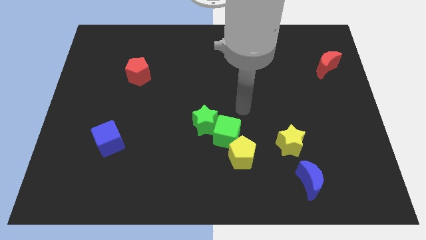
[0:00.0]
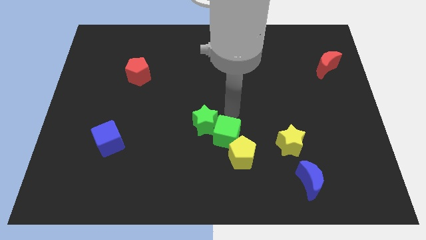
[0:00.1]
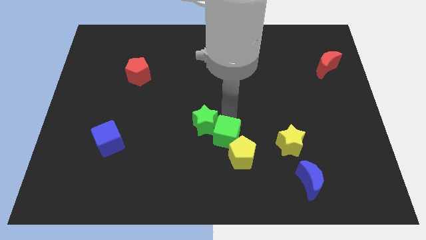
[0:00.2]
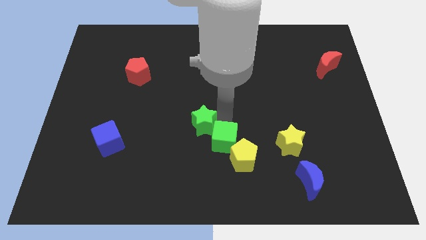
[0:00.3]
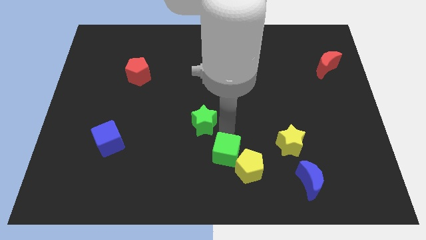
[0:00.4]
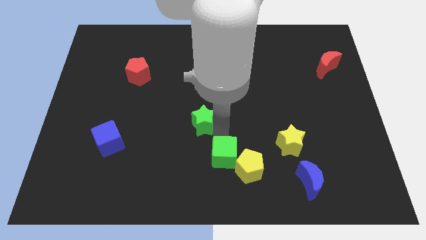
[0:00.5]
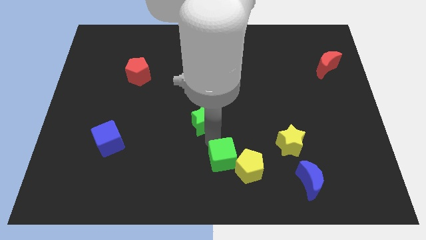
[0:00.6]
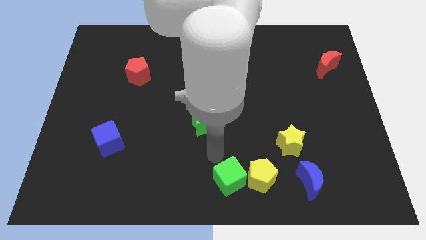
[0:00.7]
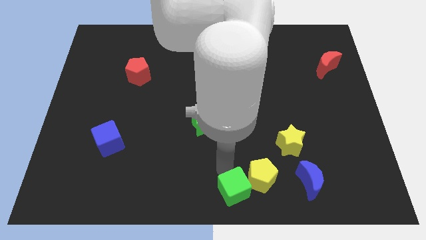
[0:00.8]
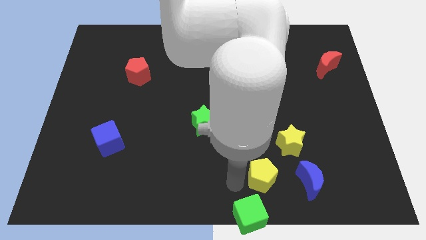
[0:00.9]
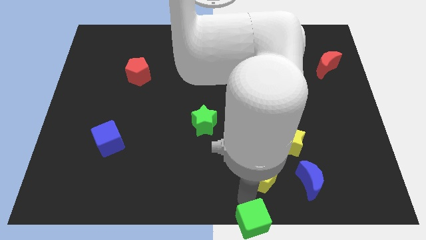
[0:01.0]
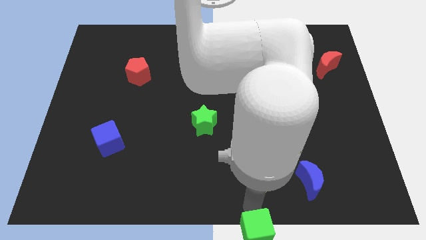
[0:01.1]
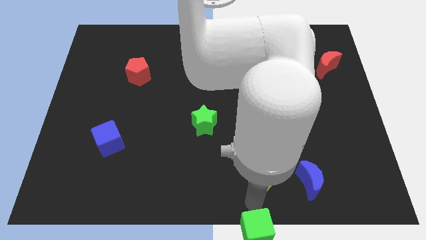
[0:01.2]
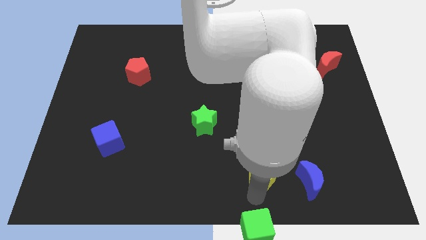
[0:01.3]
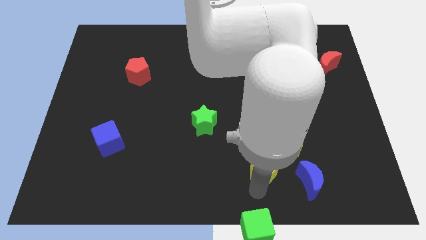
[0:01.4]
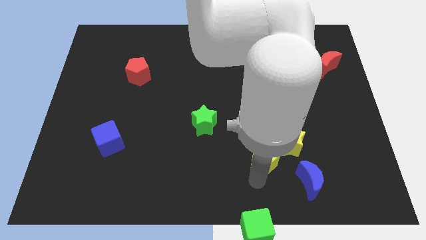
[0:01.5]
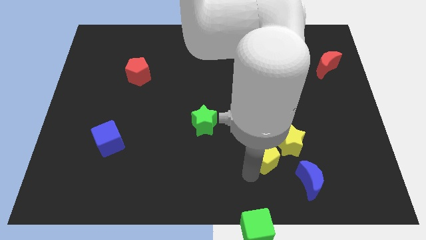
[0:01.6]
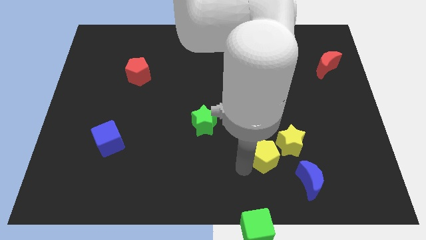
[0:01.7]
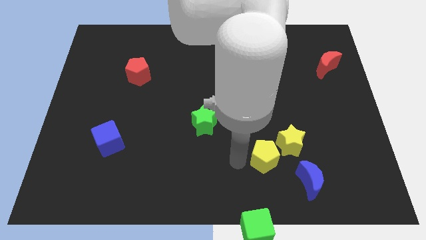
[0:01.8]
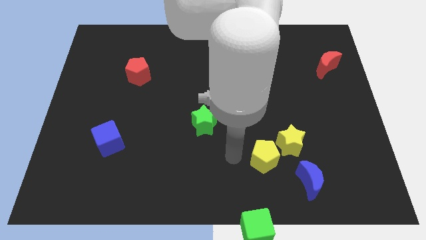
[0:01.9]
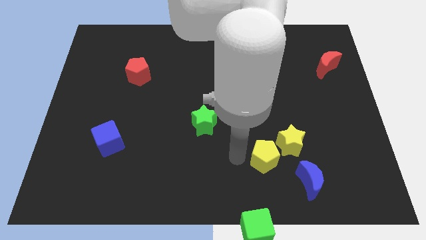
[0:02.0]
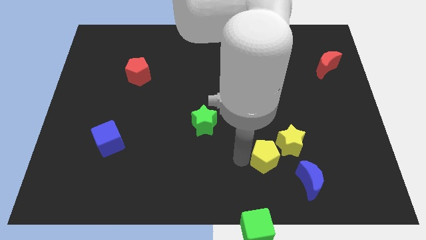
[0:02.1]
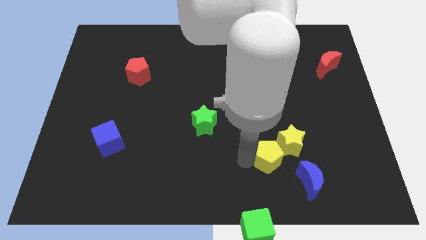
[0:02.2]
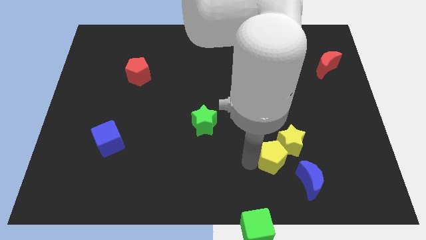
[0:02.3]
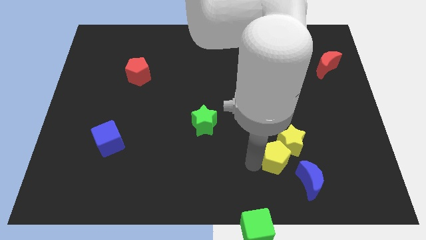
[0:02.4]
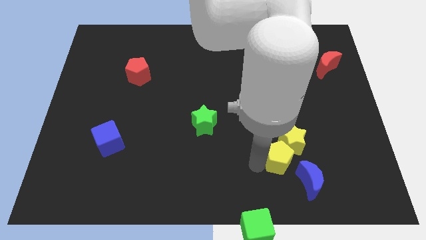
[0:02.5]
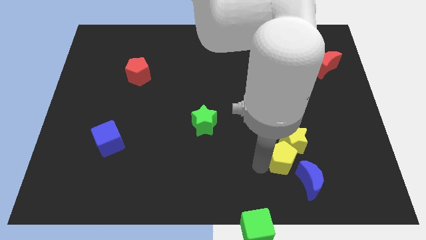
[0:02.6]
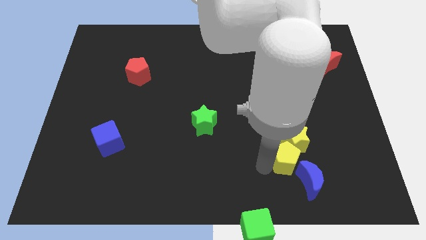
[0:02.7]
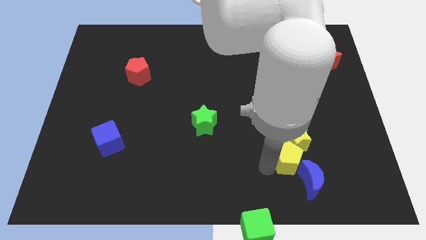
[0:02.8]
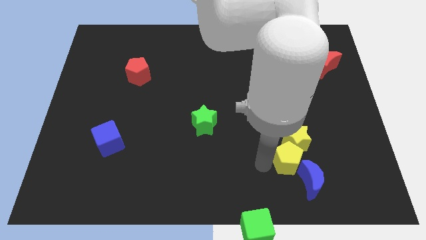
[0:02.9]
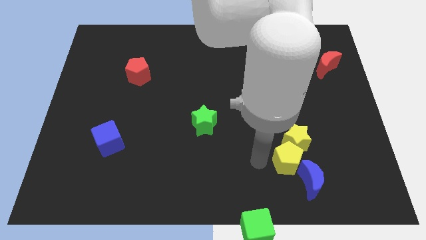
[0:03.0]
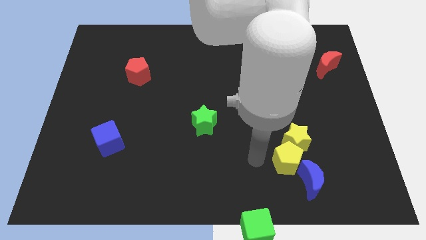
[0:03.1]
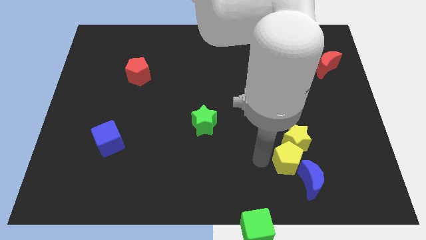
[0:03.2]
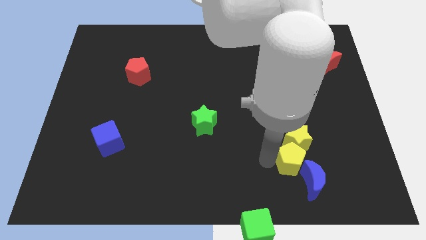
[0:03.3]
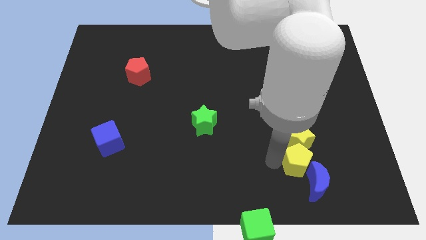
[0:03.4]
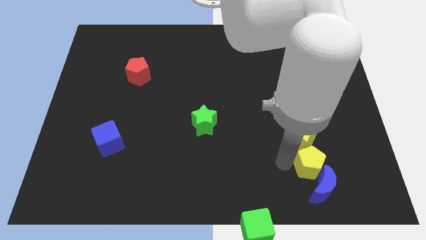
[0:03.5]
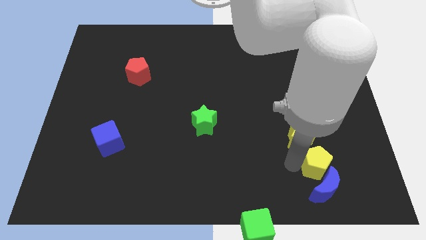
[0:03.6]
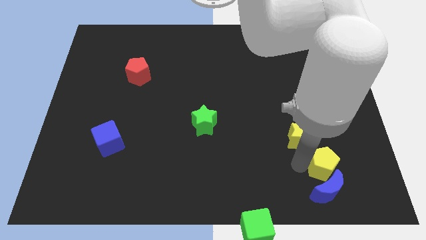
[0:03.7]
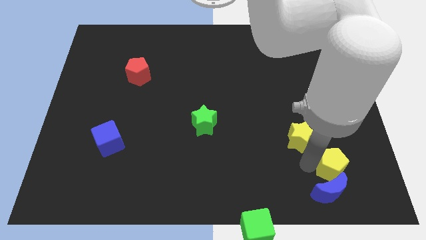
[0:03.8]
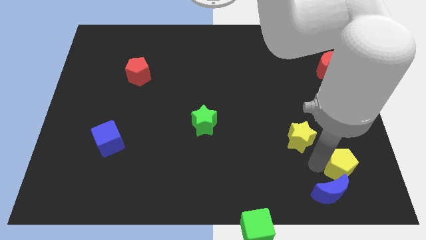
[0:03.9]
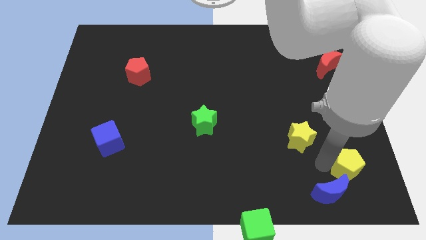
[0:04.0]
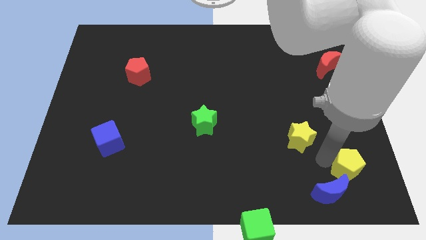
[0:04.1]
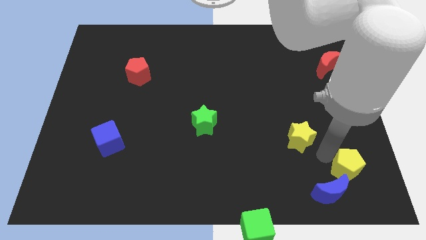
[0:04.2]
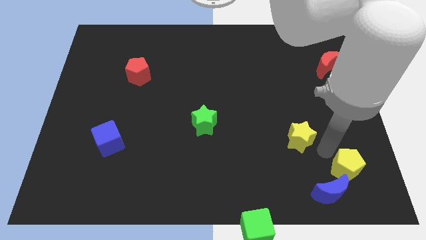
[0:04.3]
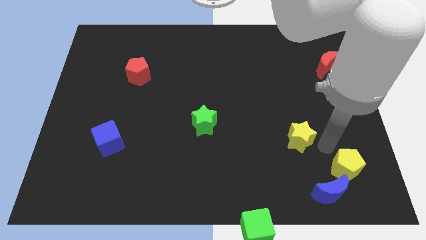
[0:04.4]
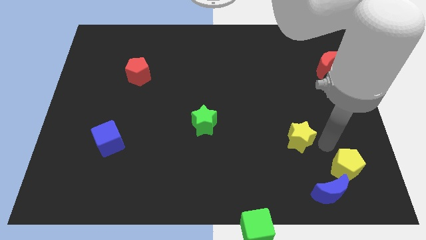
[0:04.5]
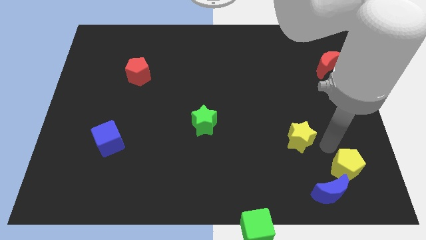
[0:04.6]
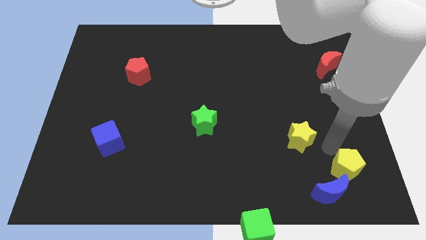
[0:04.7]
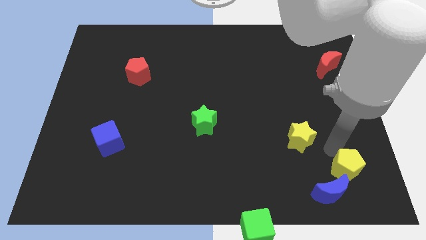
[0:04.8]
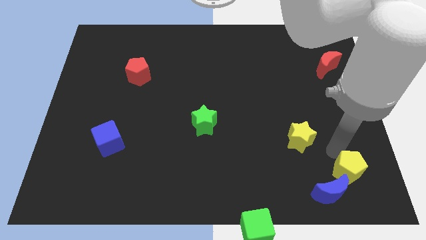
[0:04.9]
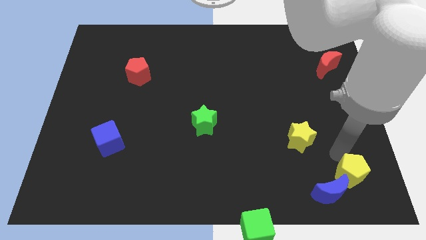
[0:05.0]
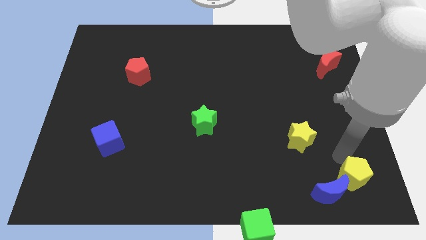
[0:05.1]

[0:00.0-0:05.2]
push the yellow pentagon to the bottom right corner

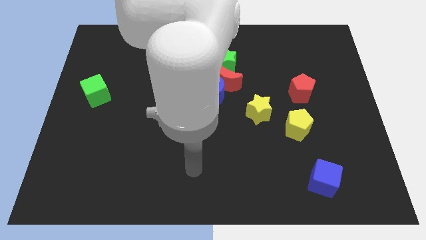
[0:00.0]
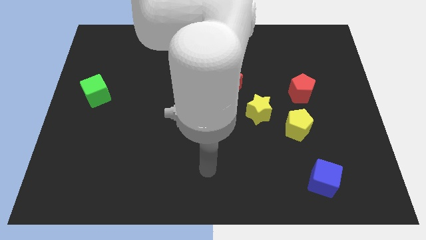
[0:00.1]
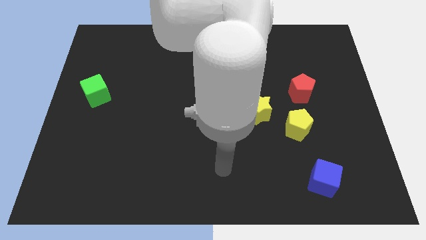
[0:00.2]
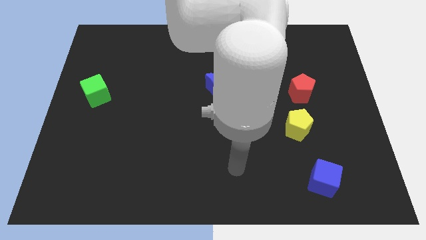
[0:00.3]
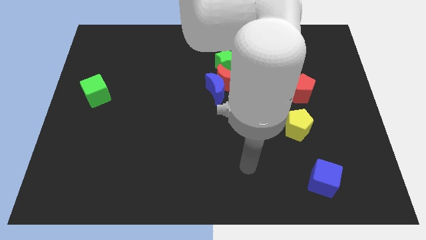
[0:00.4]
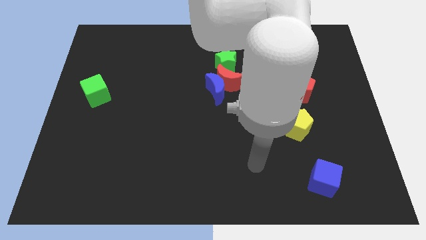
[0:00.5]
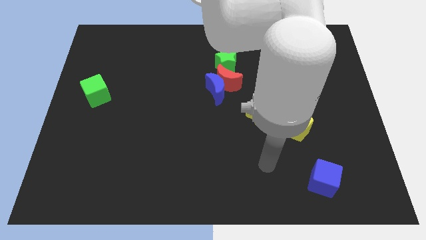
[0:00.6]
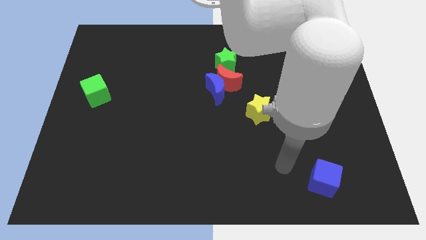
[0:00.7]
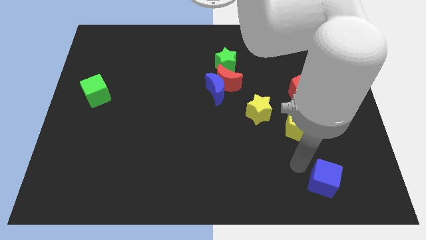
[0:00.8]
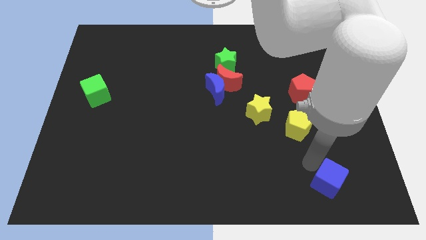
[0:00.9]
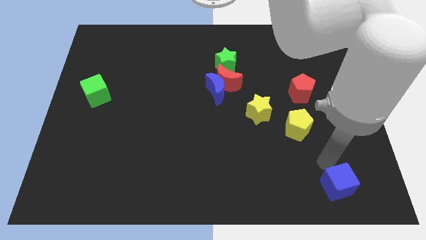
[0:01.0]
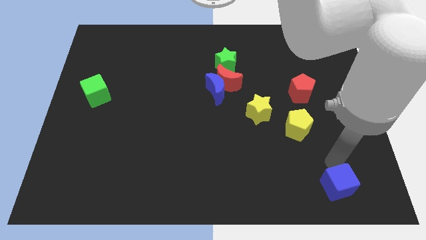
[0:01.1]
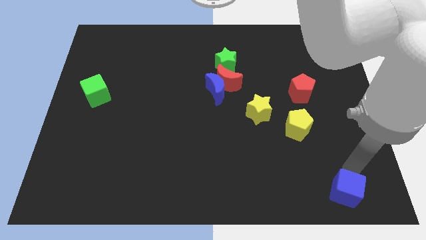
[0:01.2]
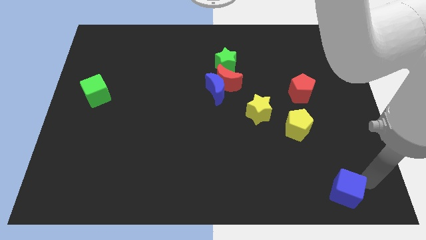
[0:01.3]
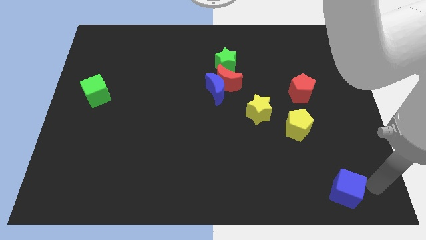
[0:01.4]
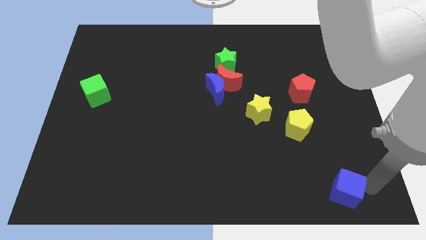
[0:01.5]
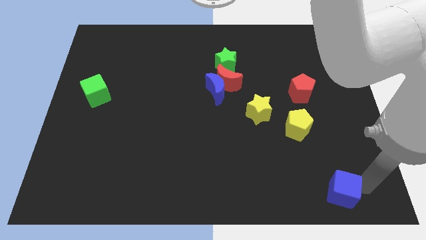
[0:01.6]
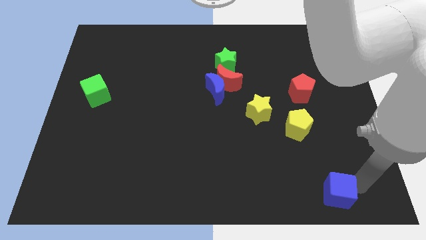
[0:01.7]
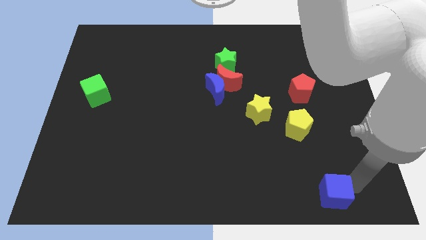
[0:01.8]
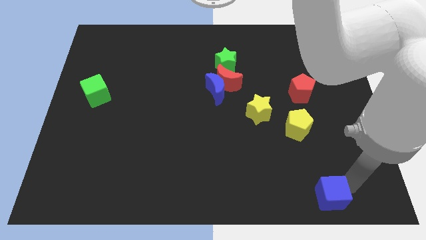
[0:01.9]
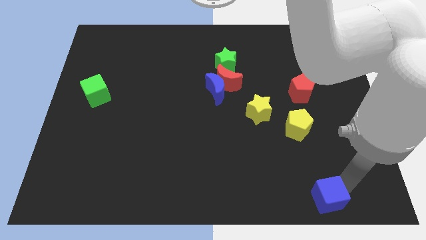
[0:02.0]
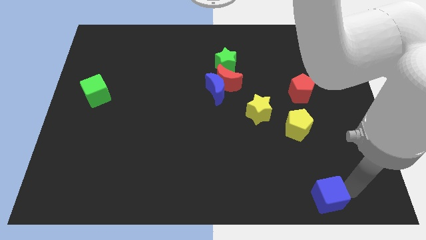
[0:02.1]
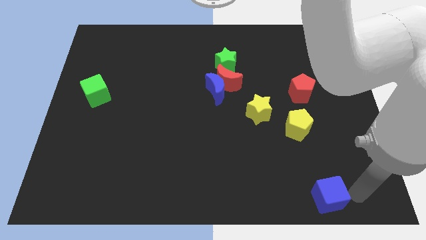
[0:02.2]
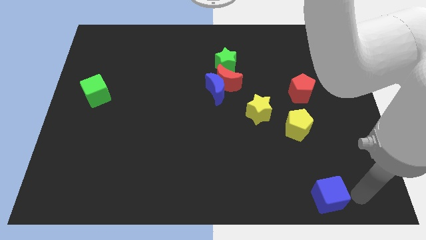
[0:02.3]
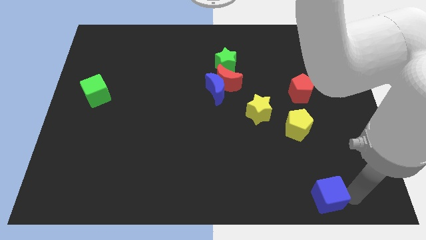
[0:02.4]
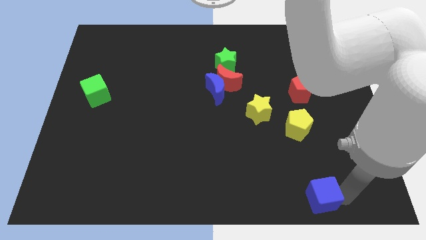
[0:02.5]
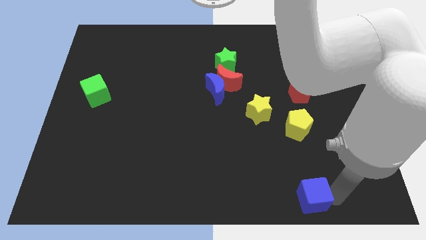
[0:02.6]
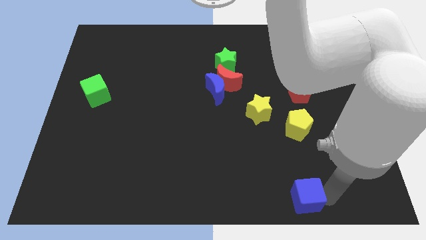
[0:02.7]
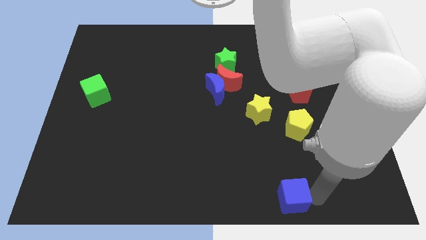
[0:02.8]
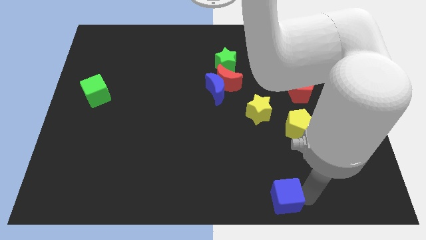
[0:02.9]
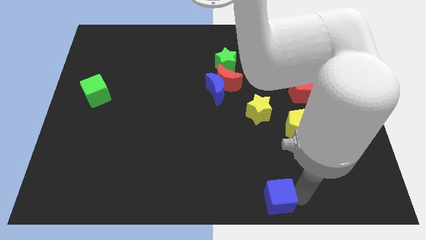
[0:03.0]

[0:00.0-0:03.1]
slide the blue cube to the bottom side
